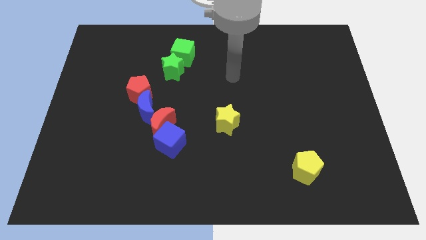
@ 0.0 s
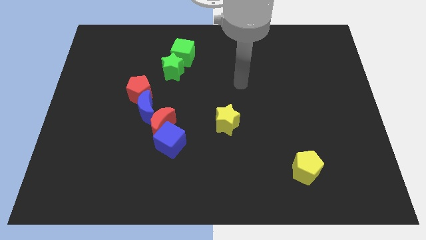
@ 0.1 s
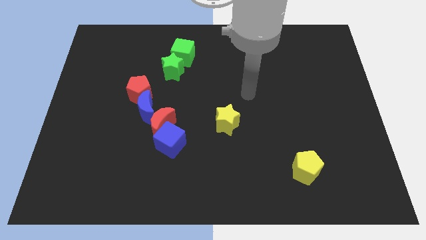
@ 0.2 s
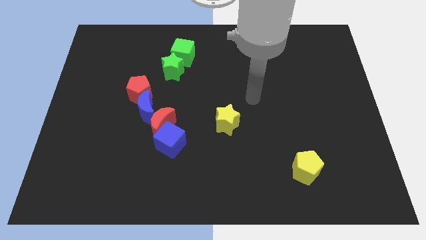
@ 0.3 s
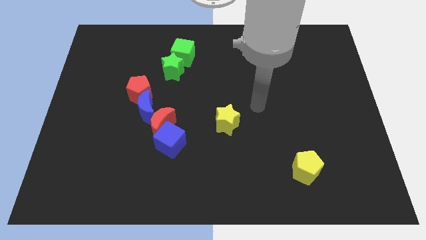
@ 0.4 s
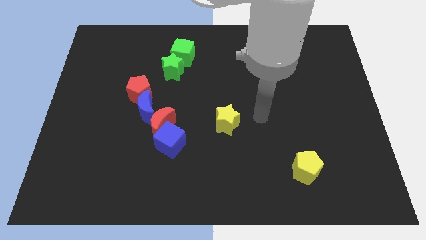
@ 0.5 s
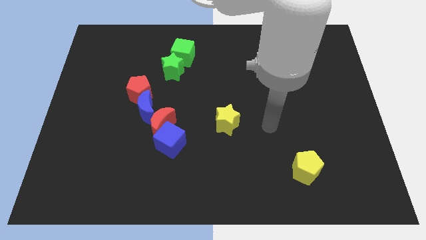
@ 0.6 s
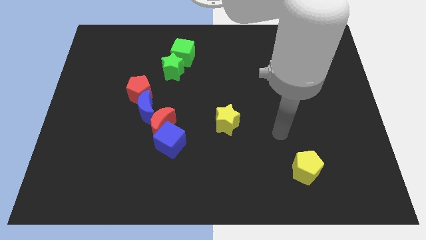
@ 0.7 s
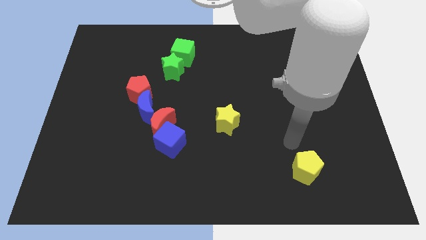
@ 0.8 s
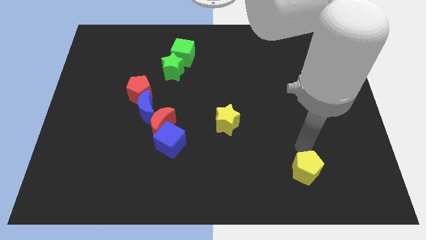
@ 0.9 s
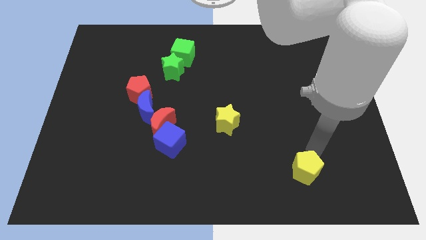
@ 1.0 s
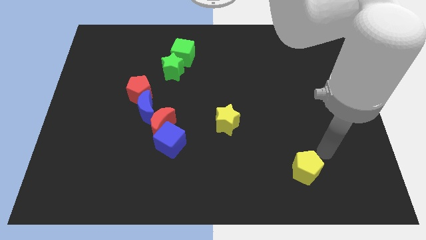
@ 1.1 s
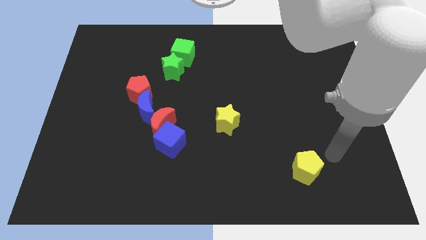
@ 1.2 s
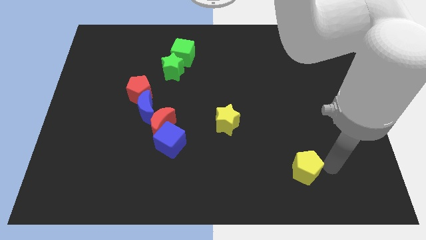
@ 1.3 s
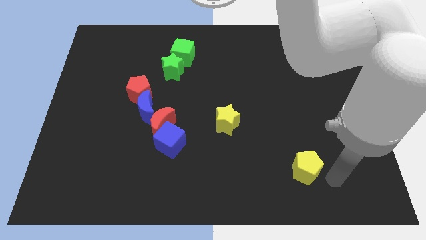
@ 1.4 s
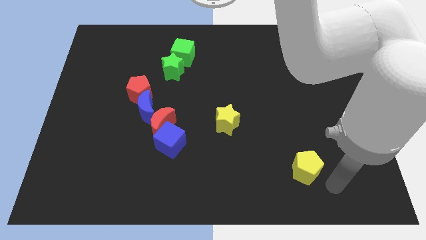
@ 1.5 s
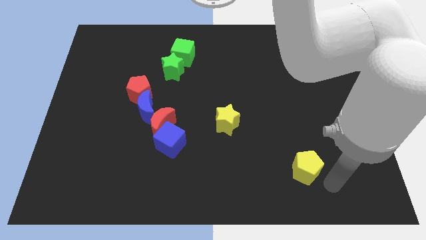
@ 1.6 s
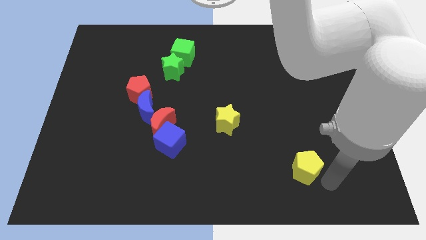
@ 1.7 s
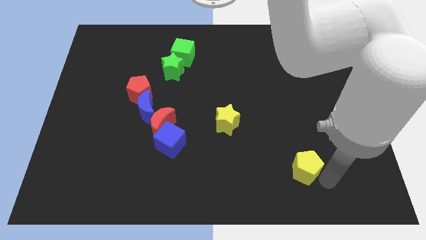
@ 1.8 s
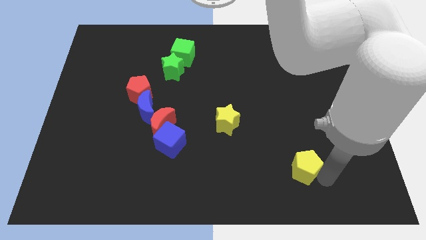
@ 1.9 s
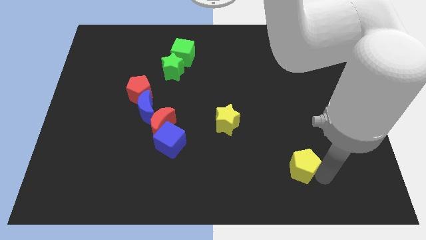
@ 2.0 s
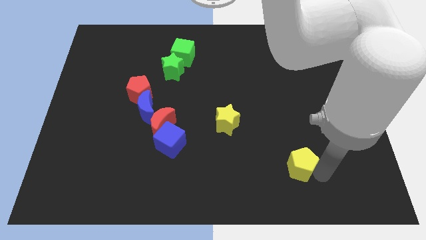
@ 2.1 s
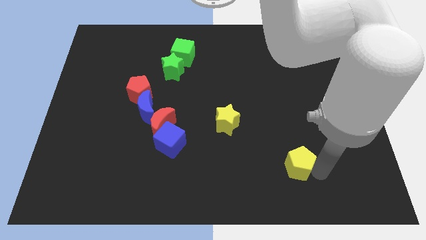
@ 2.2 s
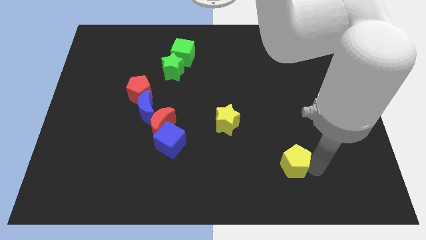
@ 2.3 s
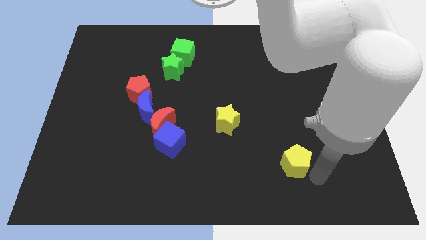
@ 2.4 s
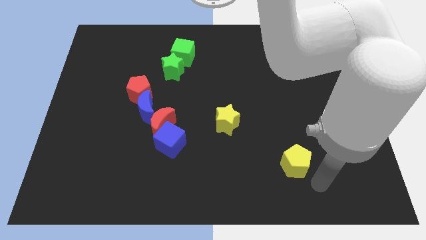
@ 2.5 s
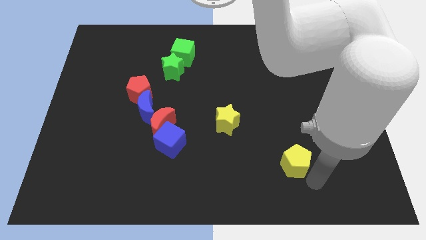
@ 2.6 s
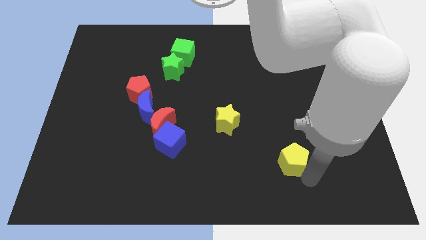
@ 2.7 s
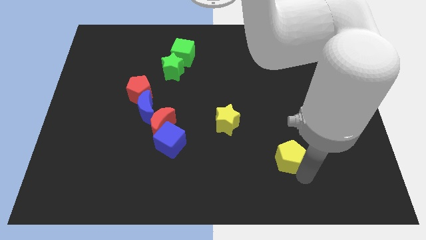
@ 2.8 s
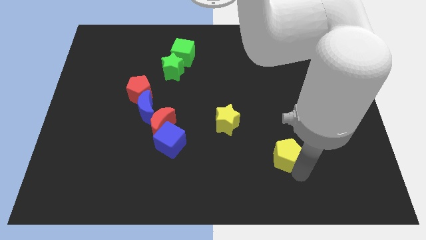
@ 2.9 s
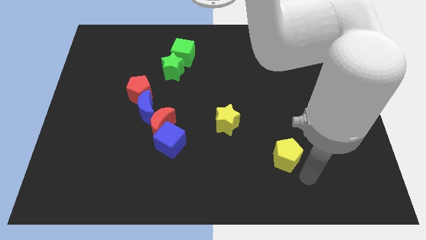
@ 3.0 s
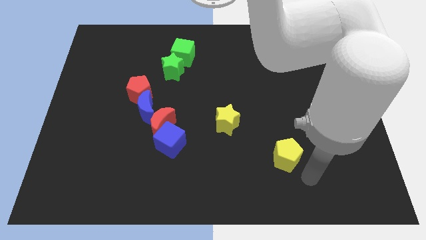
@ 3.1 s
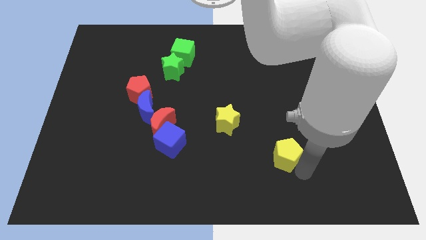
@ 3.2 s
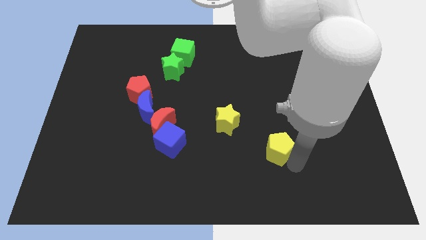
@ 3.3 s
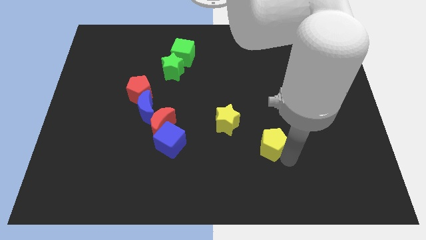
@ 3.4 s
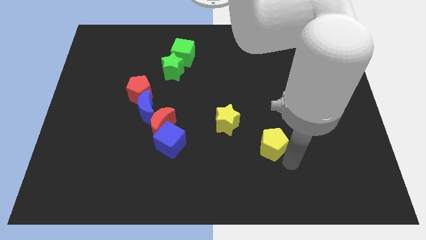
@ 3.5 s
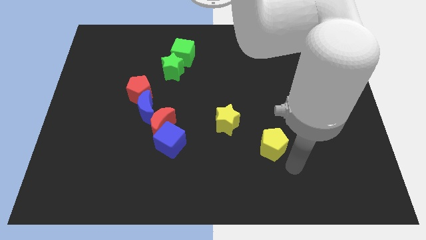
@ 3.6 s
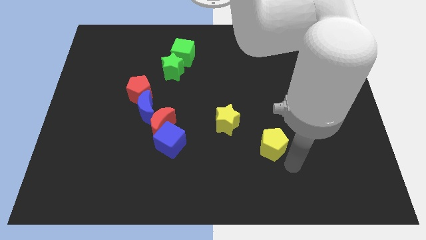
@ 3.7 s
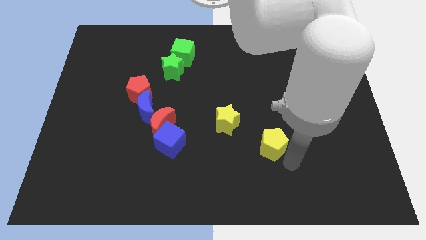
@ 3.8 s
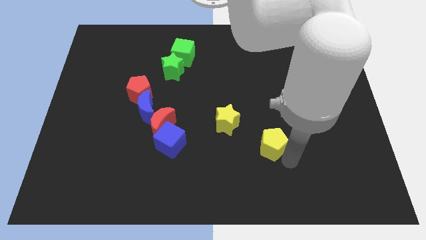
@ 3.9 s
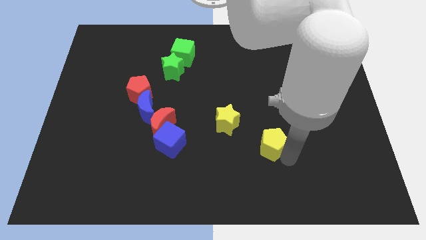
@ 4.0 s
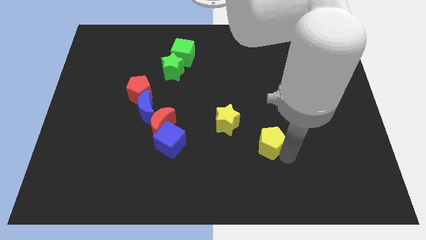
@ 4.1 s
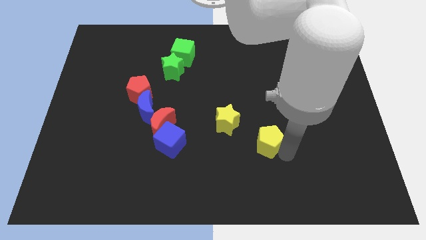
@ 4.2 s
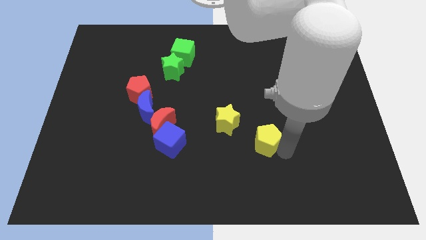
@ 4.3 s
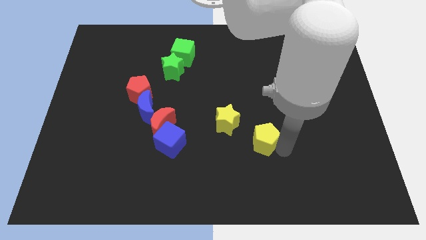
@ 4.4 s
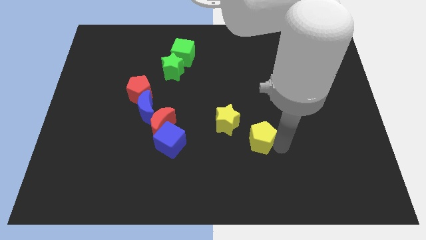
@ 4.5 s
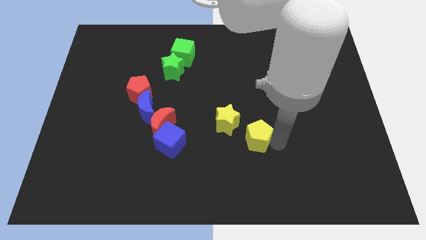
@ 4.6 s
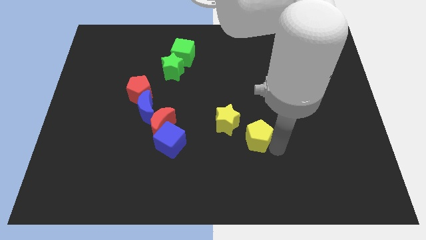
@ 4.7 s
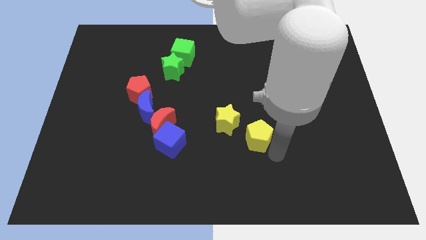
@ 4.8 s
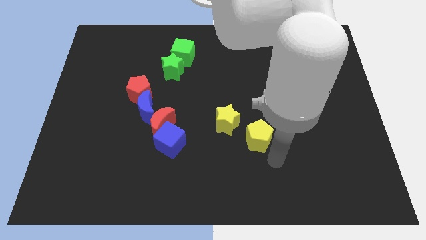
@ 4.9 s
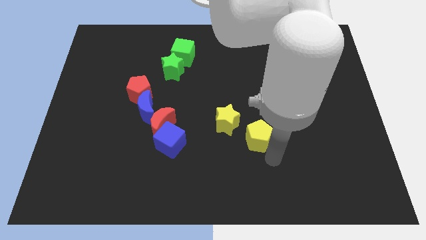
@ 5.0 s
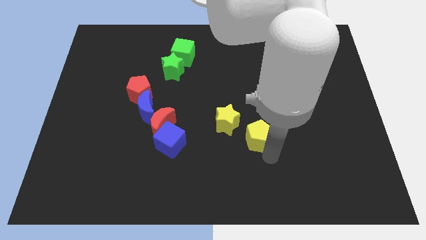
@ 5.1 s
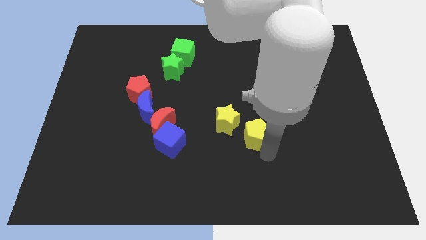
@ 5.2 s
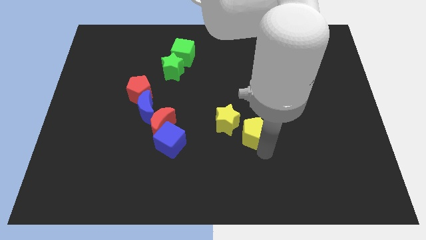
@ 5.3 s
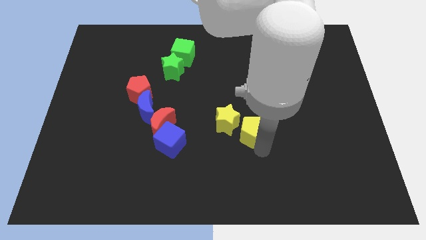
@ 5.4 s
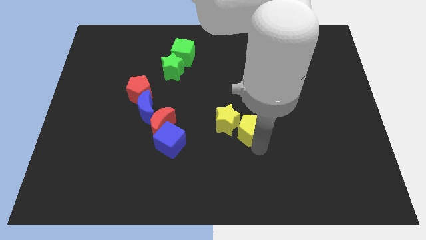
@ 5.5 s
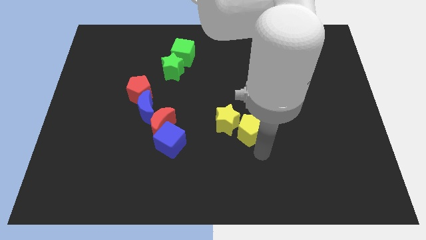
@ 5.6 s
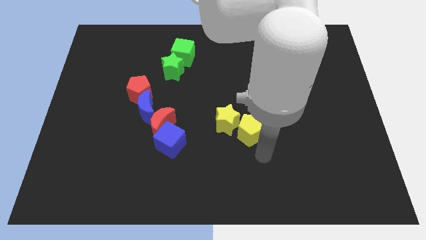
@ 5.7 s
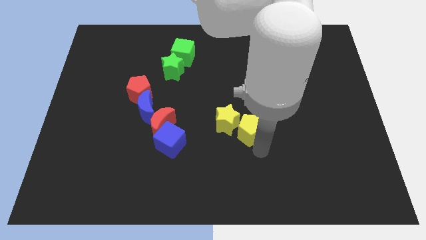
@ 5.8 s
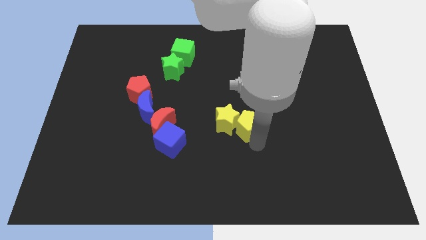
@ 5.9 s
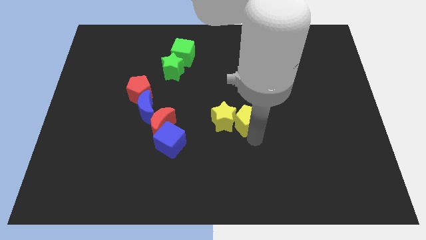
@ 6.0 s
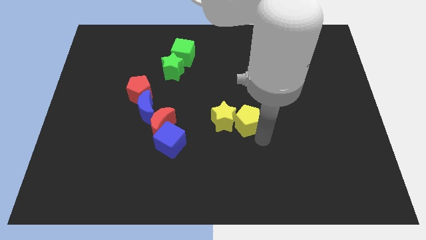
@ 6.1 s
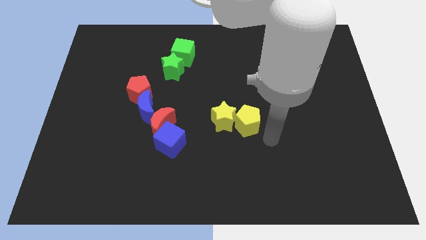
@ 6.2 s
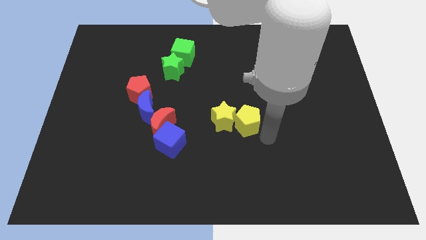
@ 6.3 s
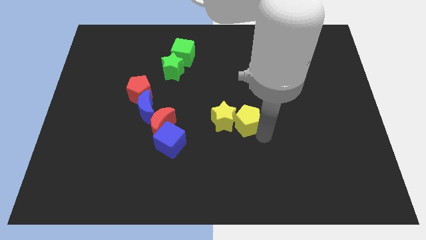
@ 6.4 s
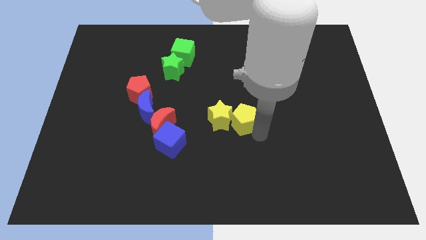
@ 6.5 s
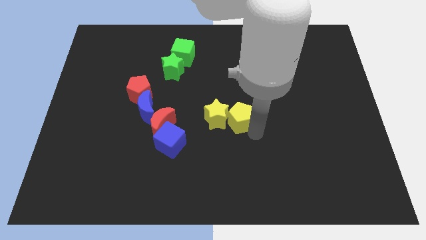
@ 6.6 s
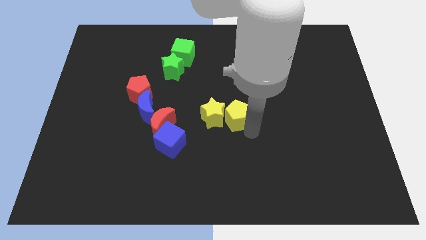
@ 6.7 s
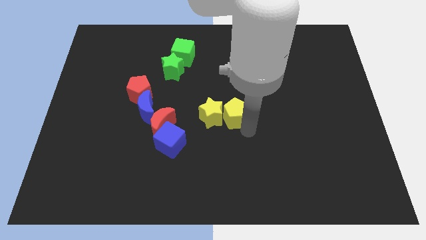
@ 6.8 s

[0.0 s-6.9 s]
push the yellow pentagon upwards and then left

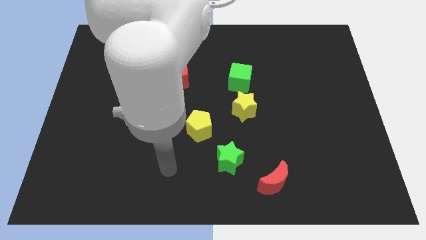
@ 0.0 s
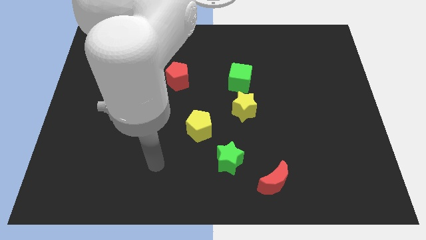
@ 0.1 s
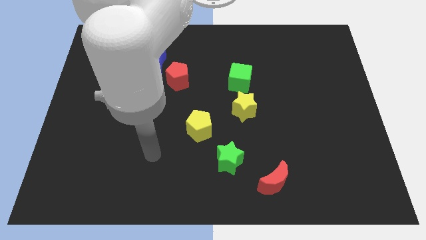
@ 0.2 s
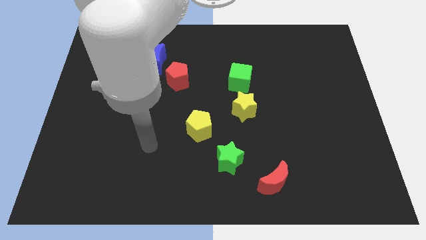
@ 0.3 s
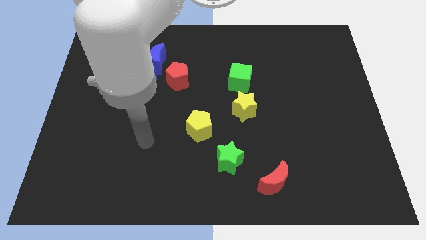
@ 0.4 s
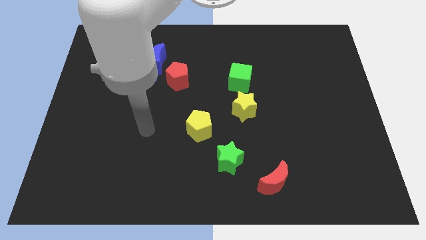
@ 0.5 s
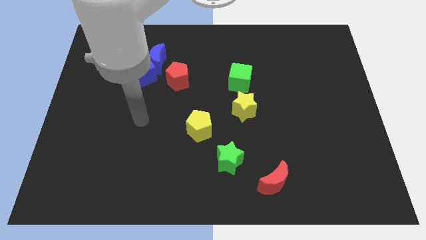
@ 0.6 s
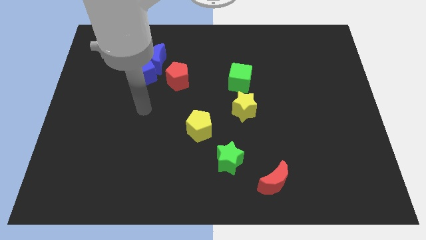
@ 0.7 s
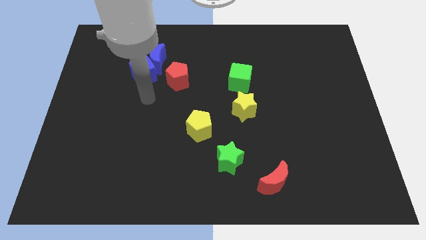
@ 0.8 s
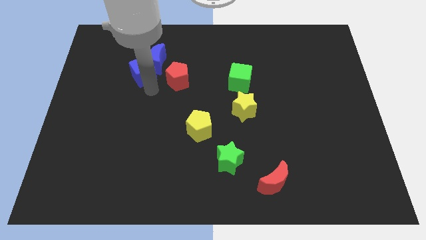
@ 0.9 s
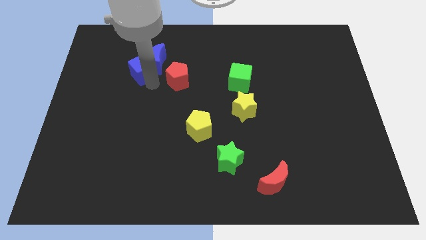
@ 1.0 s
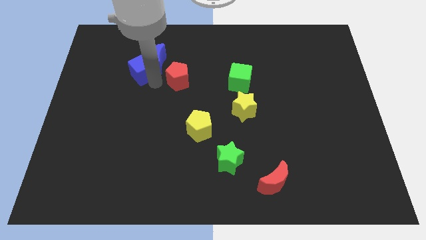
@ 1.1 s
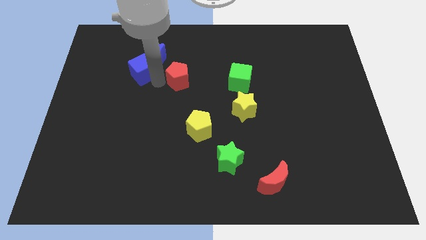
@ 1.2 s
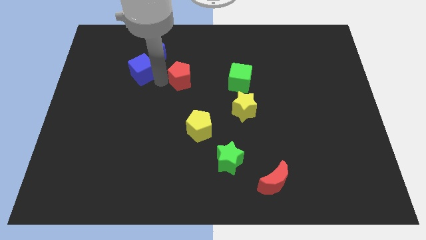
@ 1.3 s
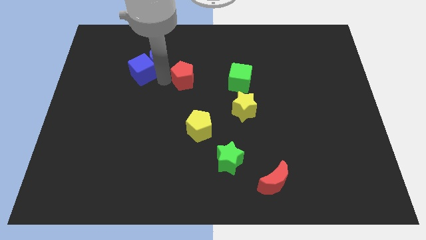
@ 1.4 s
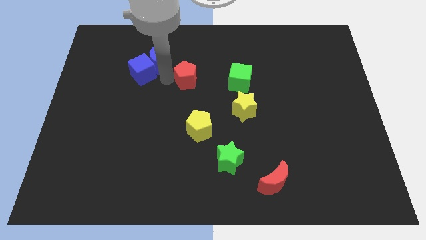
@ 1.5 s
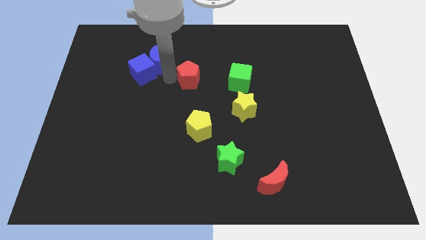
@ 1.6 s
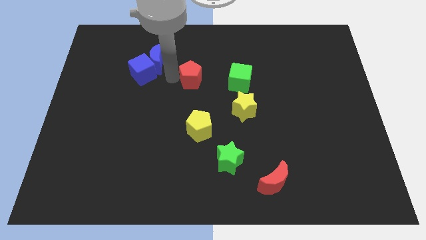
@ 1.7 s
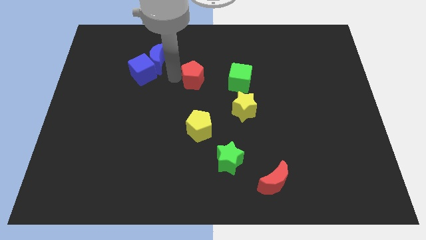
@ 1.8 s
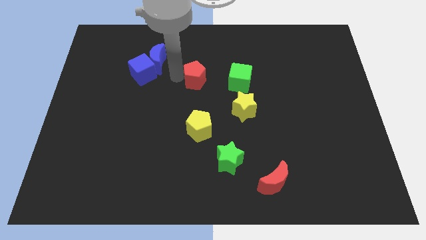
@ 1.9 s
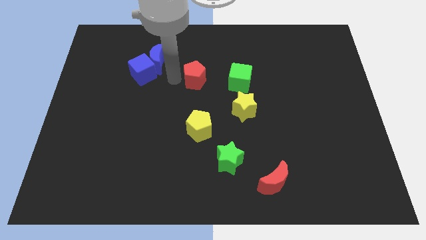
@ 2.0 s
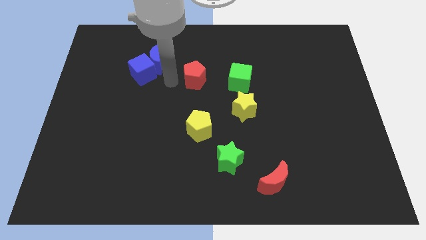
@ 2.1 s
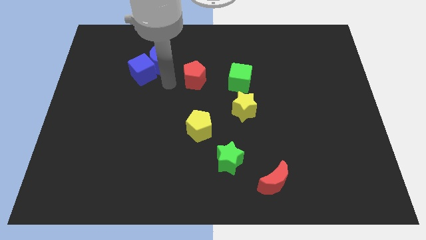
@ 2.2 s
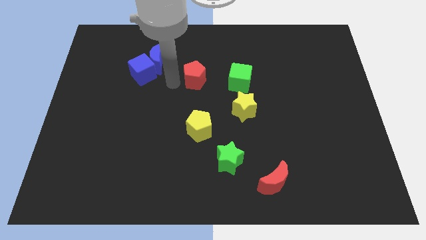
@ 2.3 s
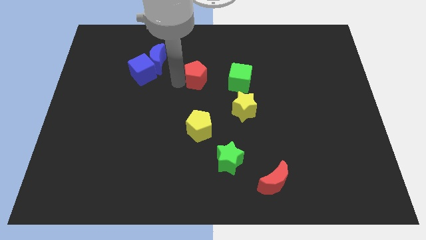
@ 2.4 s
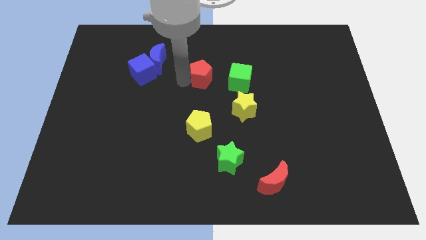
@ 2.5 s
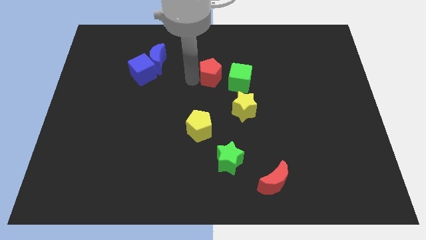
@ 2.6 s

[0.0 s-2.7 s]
slide the red pentagon somewhat to the right
